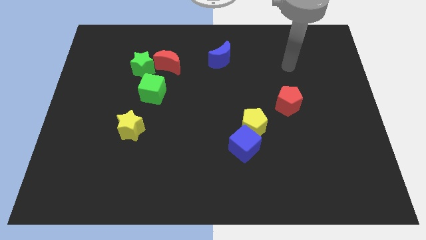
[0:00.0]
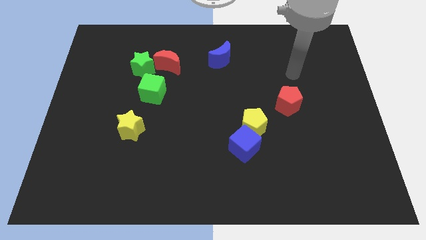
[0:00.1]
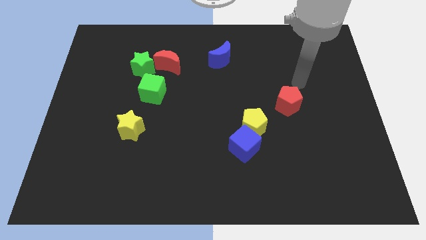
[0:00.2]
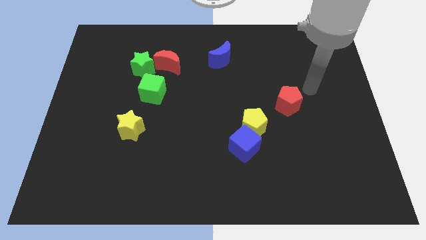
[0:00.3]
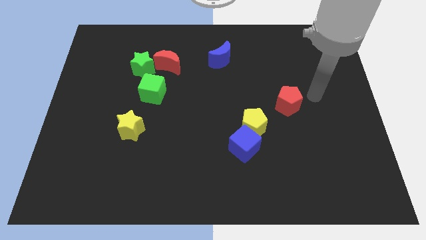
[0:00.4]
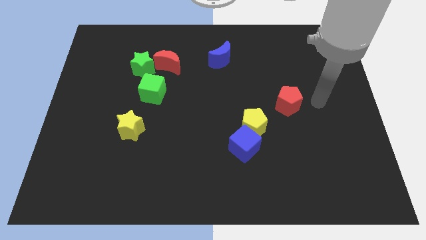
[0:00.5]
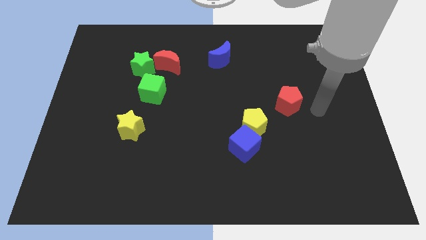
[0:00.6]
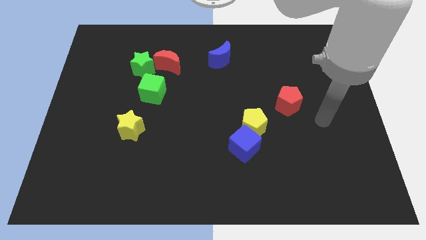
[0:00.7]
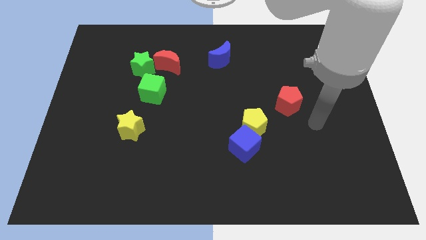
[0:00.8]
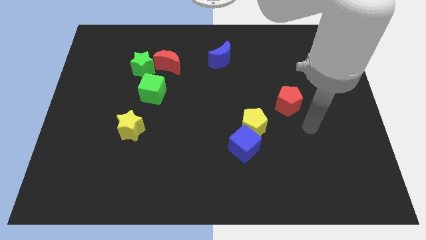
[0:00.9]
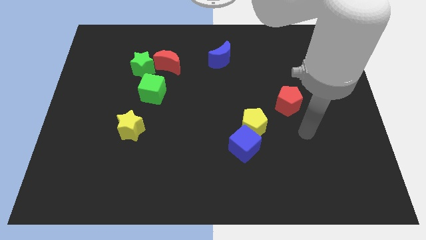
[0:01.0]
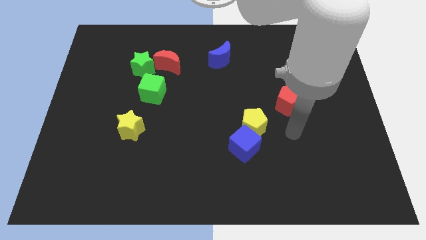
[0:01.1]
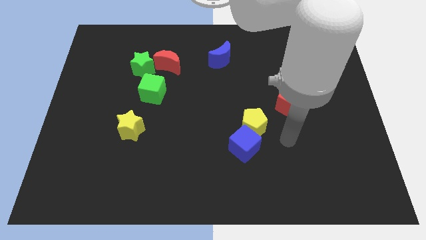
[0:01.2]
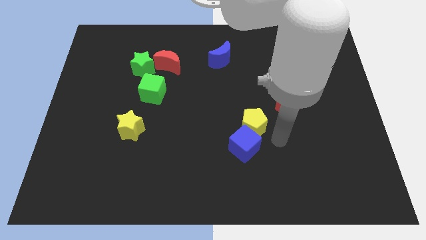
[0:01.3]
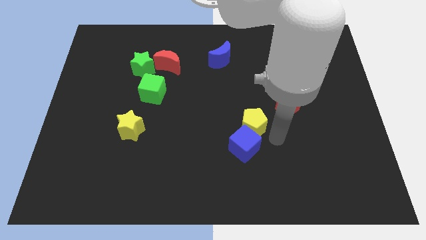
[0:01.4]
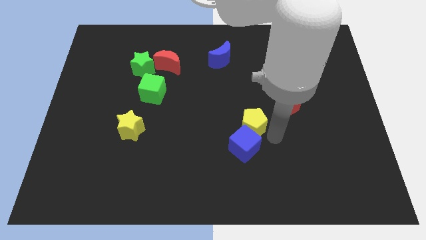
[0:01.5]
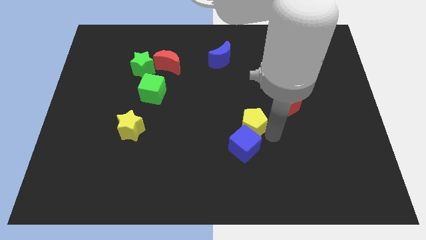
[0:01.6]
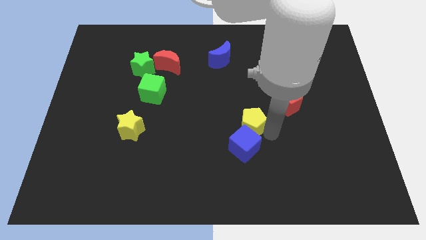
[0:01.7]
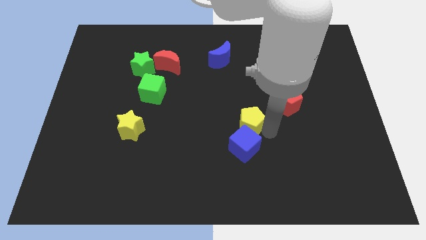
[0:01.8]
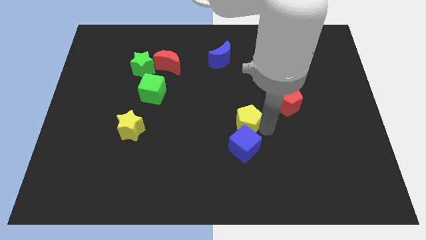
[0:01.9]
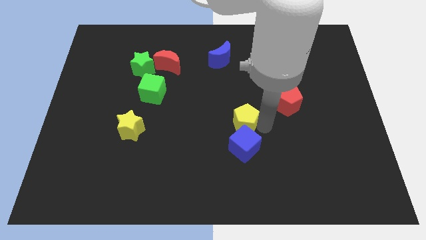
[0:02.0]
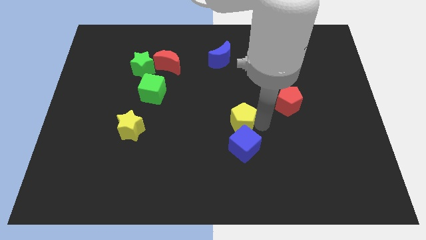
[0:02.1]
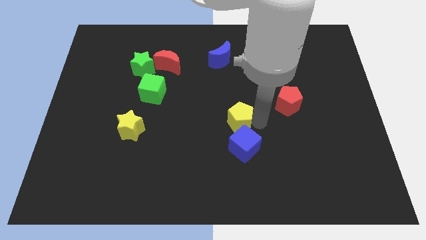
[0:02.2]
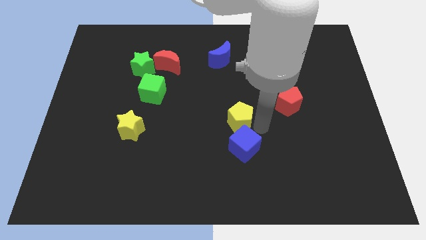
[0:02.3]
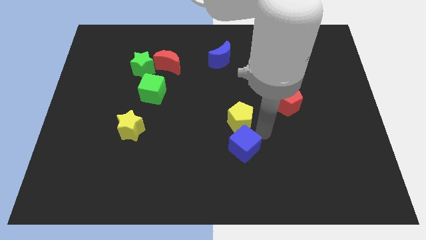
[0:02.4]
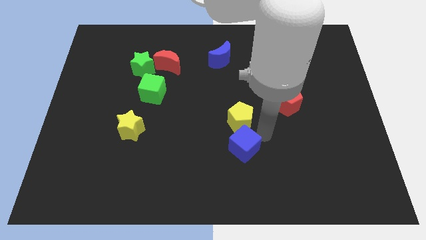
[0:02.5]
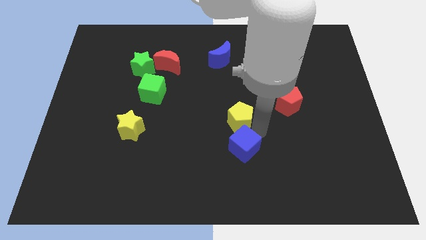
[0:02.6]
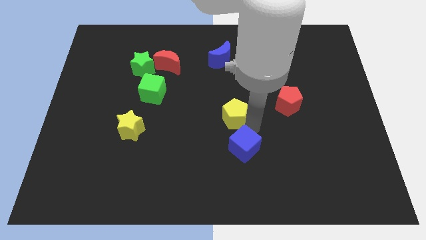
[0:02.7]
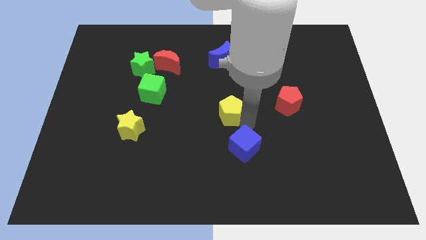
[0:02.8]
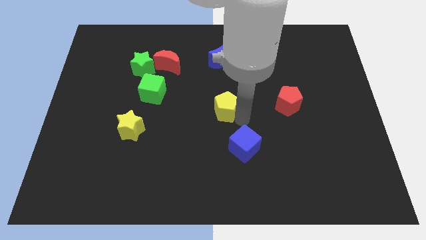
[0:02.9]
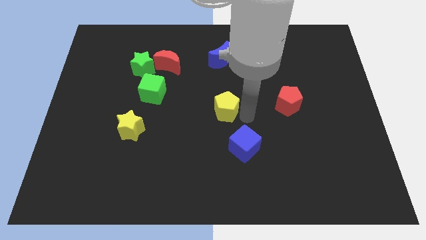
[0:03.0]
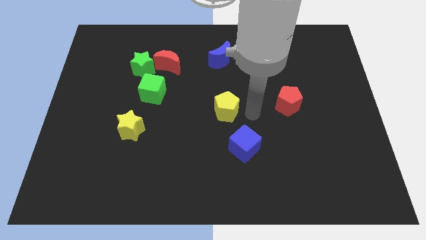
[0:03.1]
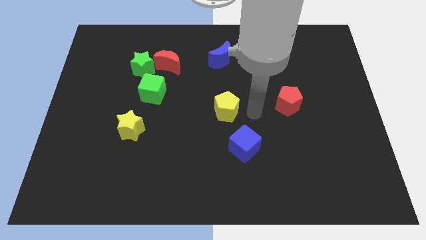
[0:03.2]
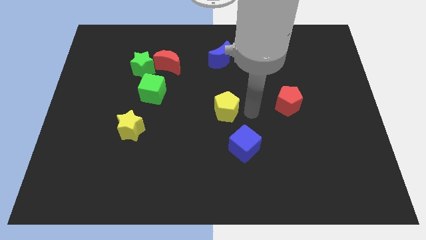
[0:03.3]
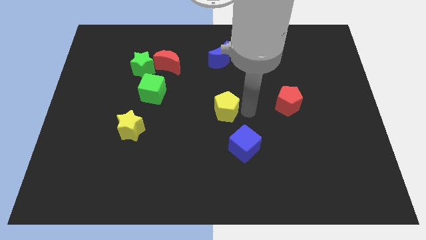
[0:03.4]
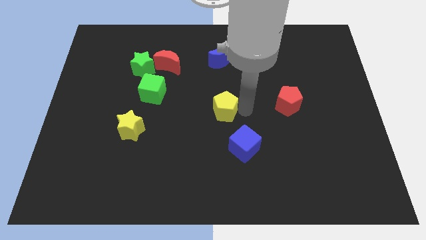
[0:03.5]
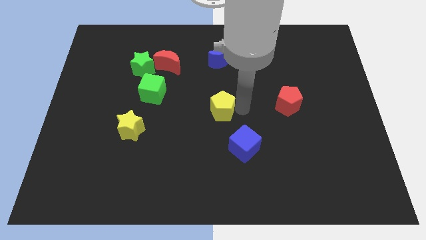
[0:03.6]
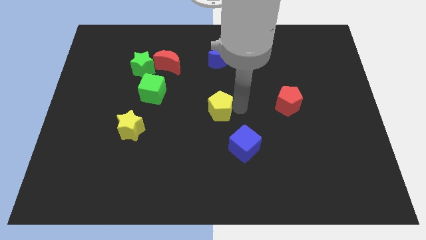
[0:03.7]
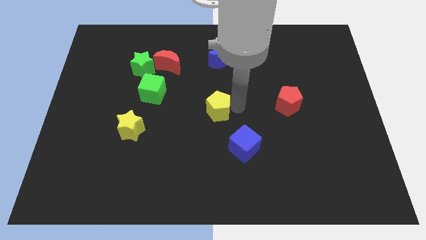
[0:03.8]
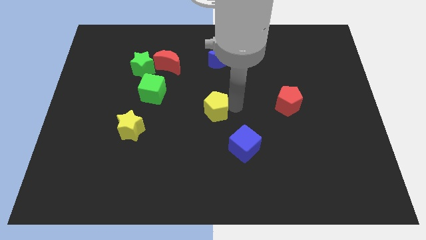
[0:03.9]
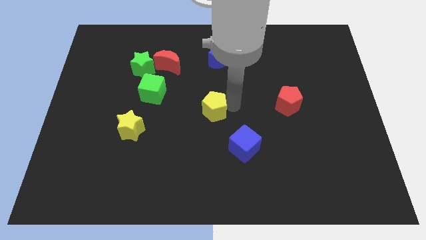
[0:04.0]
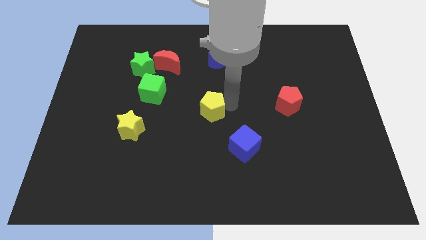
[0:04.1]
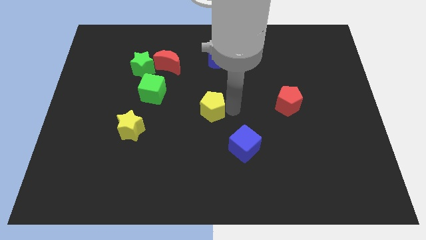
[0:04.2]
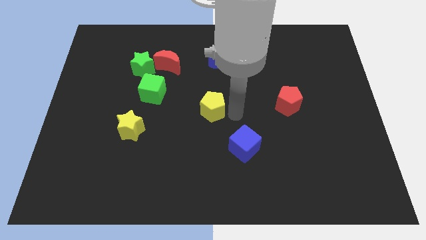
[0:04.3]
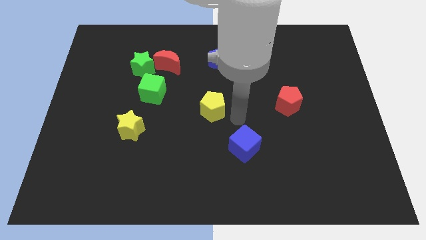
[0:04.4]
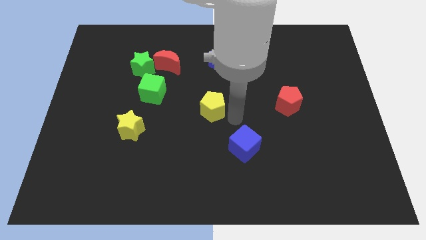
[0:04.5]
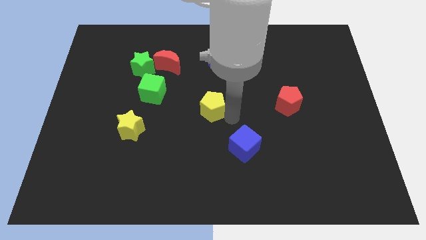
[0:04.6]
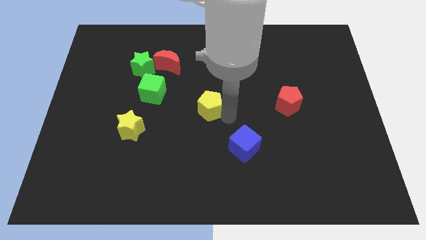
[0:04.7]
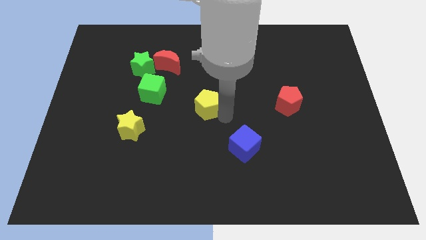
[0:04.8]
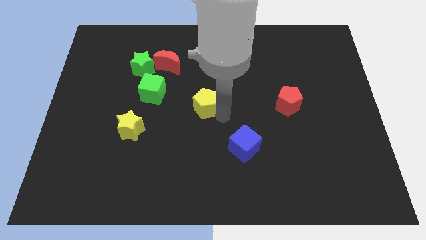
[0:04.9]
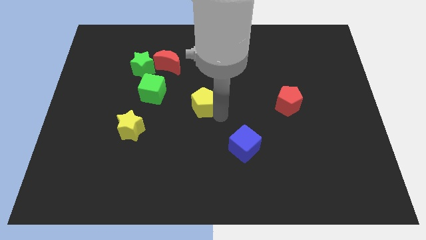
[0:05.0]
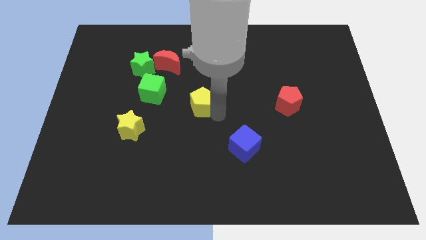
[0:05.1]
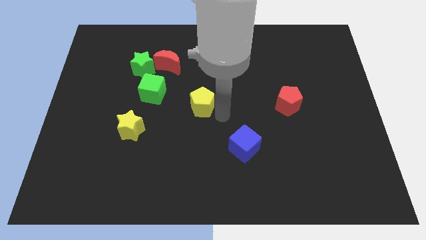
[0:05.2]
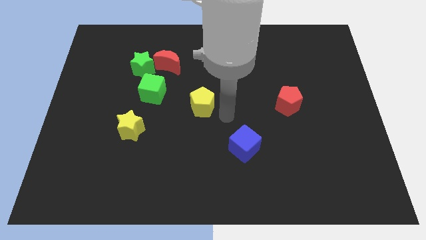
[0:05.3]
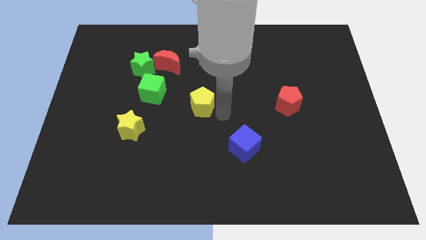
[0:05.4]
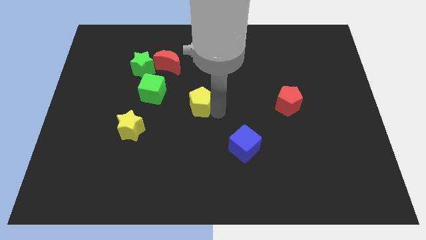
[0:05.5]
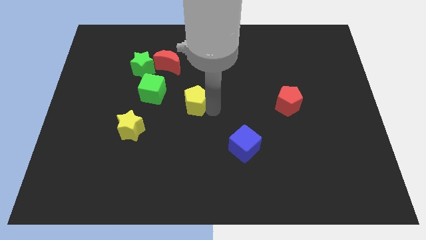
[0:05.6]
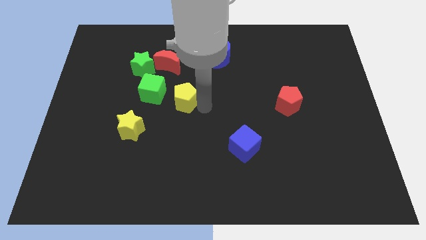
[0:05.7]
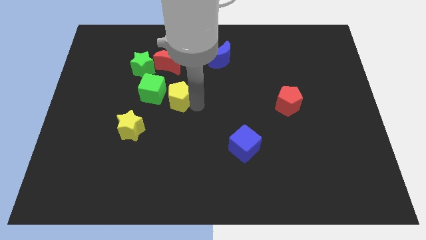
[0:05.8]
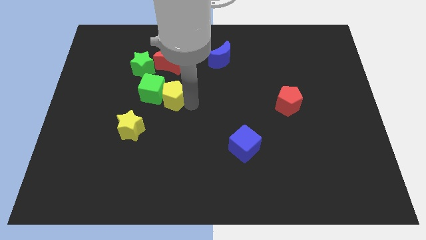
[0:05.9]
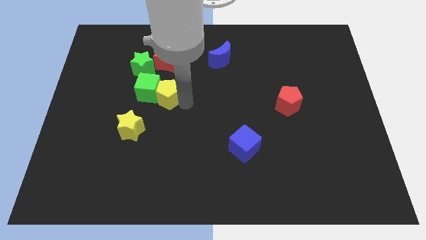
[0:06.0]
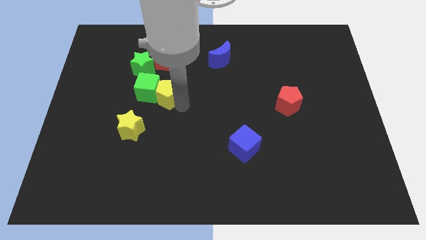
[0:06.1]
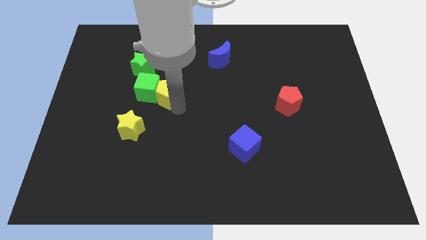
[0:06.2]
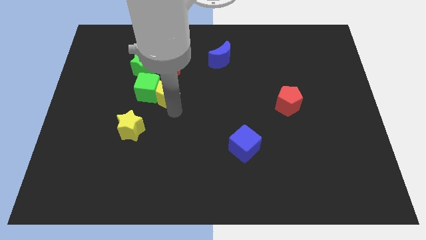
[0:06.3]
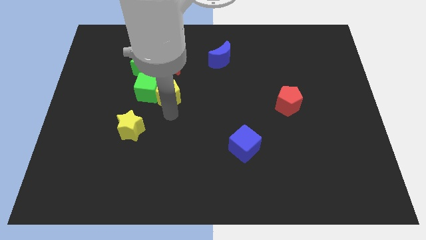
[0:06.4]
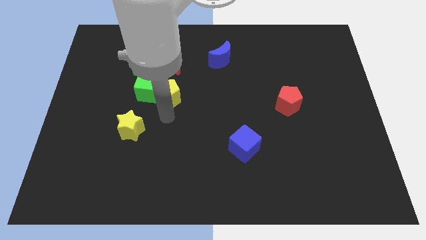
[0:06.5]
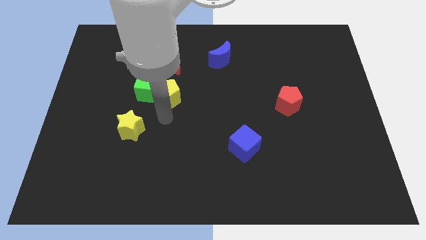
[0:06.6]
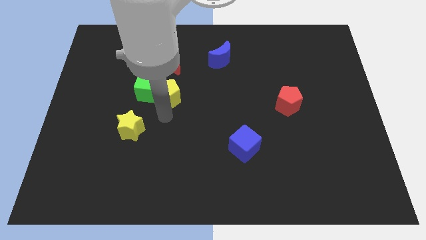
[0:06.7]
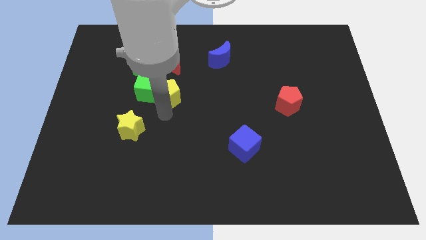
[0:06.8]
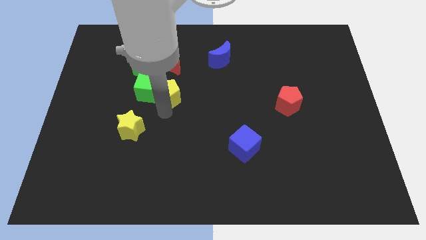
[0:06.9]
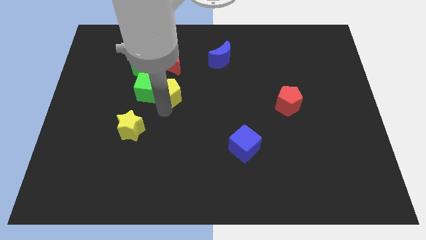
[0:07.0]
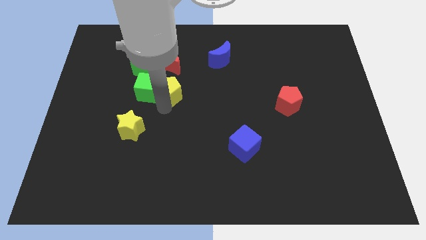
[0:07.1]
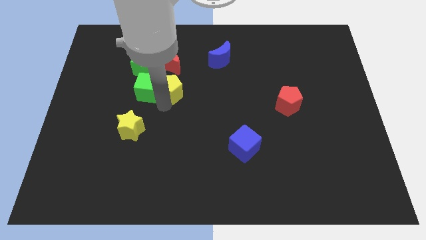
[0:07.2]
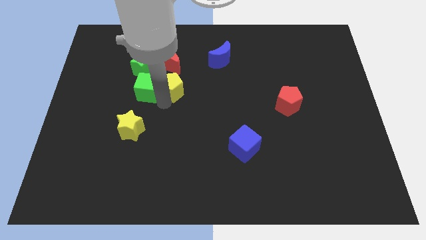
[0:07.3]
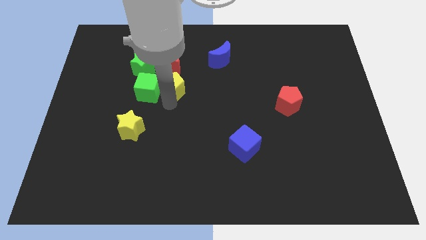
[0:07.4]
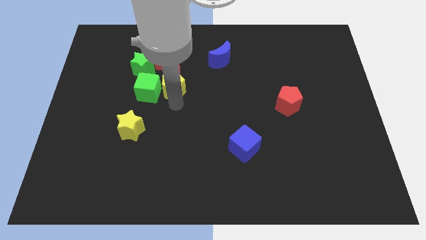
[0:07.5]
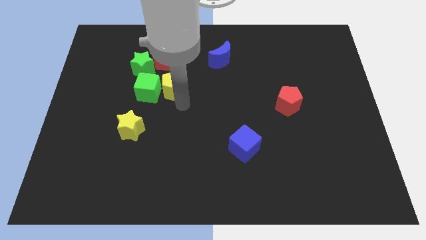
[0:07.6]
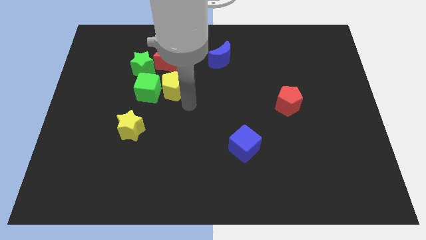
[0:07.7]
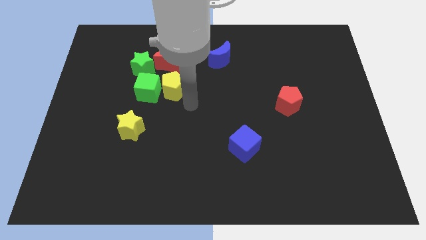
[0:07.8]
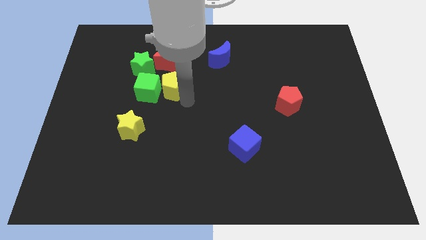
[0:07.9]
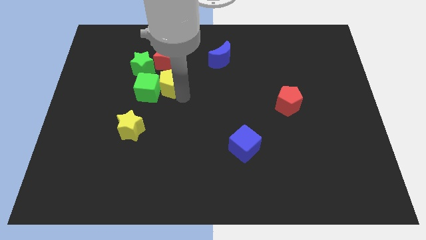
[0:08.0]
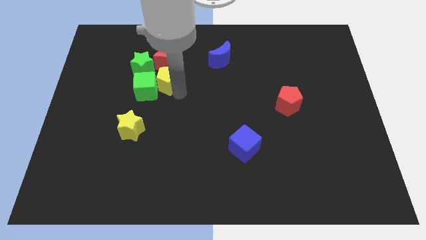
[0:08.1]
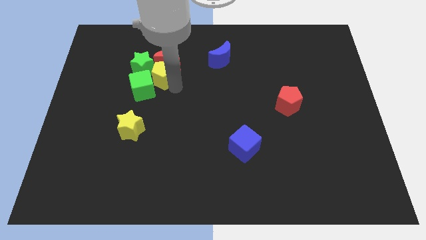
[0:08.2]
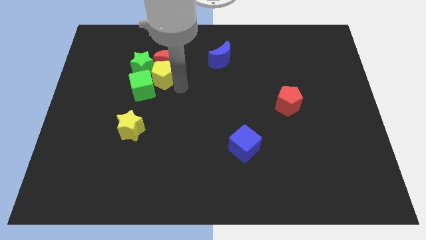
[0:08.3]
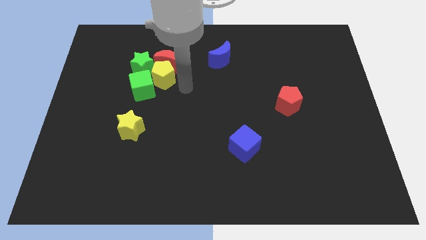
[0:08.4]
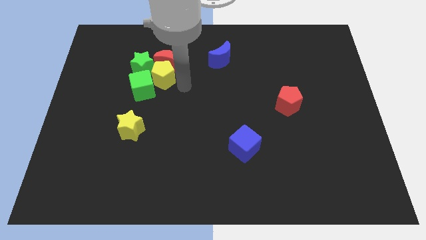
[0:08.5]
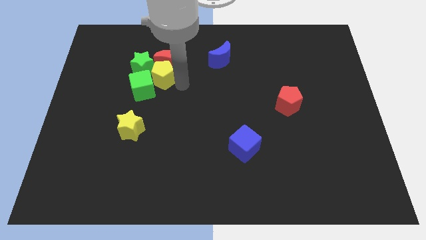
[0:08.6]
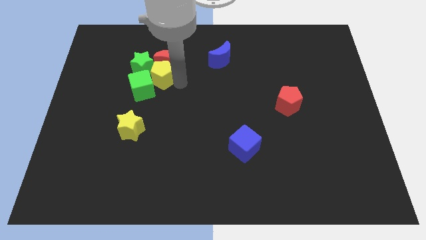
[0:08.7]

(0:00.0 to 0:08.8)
move the yellow pentagon to the green star
